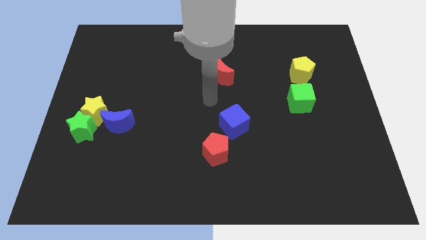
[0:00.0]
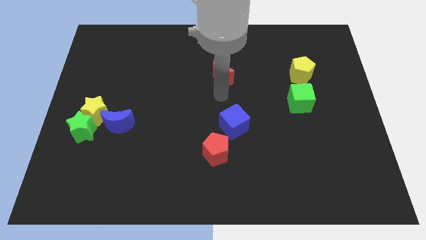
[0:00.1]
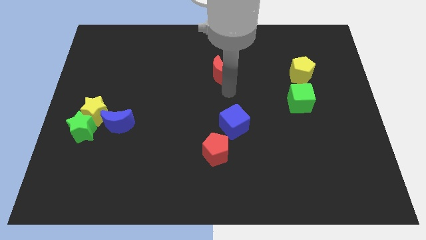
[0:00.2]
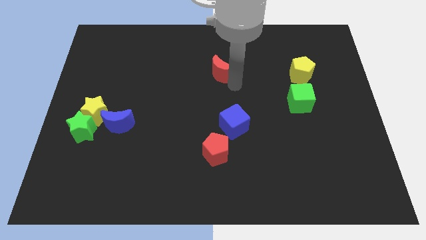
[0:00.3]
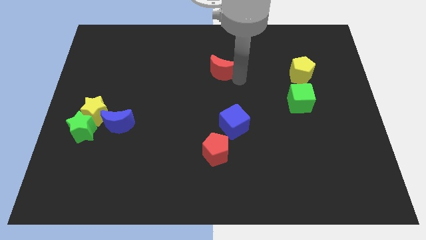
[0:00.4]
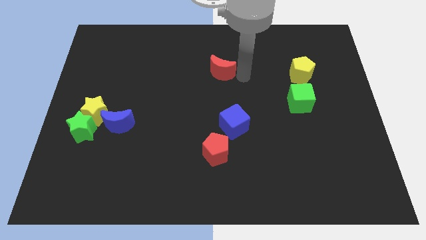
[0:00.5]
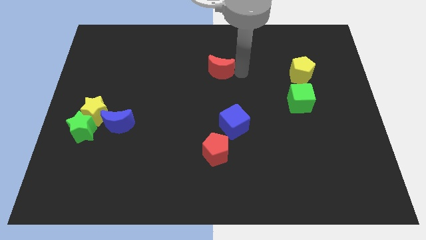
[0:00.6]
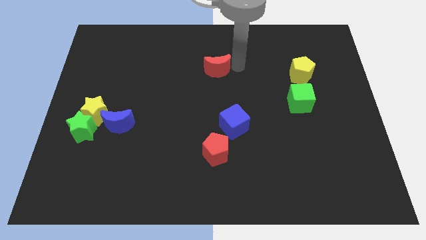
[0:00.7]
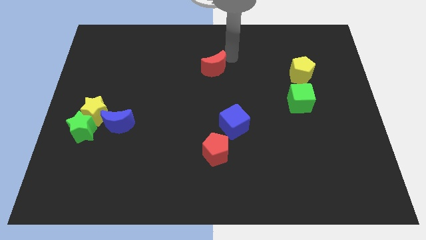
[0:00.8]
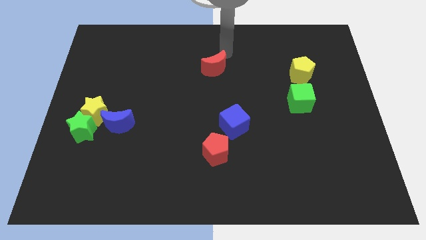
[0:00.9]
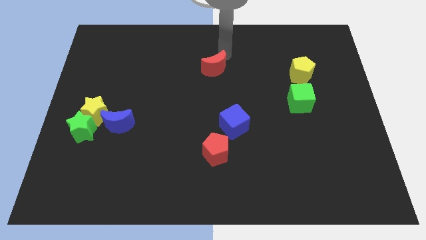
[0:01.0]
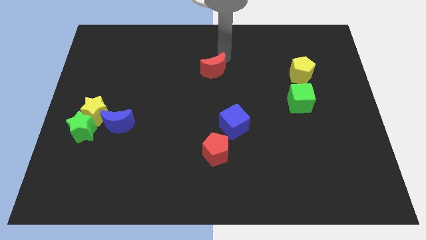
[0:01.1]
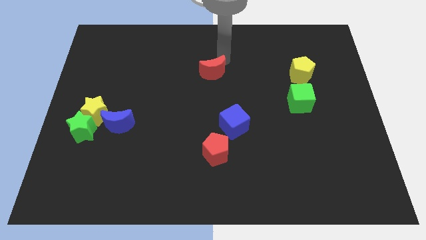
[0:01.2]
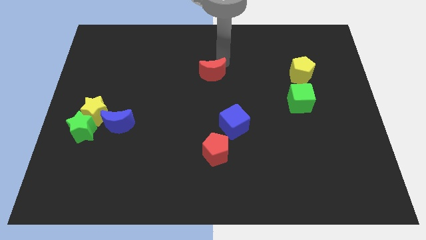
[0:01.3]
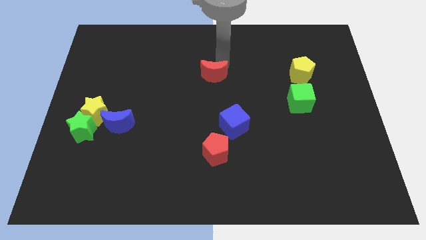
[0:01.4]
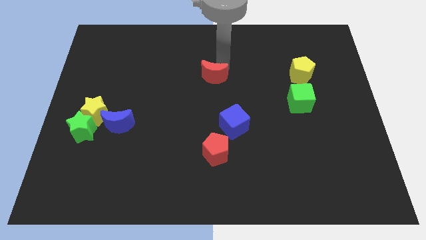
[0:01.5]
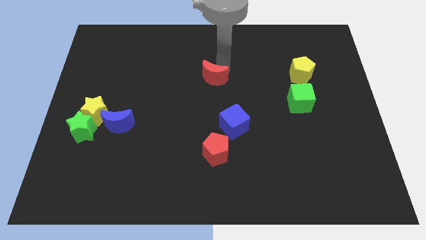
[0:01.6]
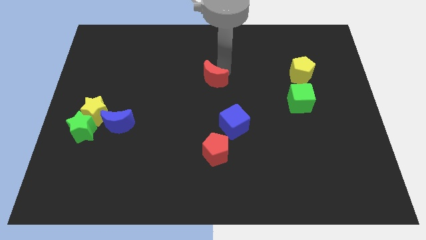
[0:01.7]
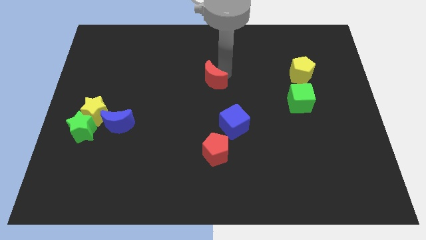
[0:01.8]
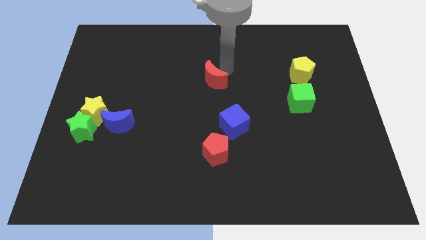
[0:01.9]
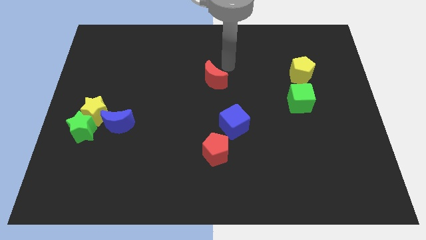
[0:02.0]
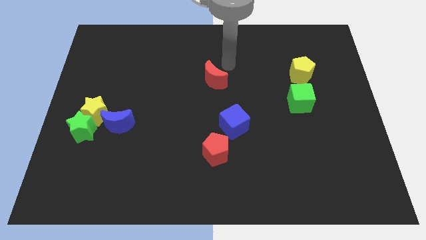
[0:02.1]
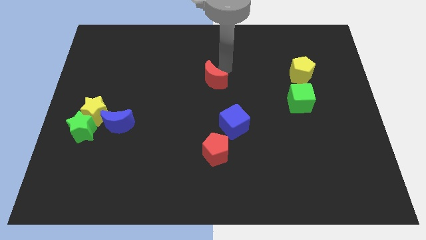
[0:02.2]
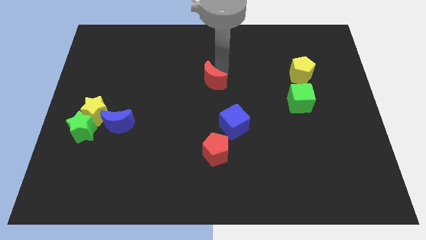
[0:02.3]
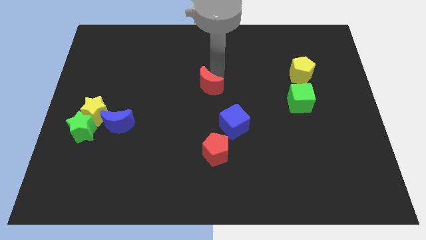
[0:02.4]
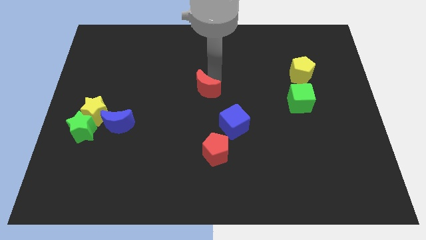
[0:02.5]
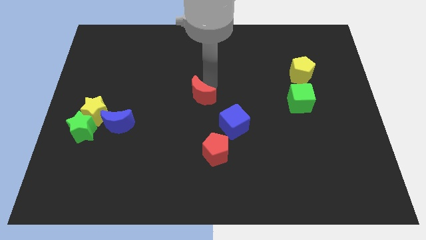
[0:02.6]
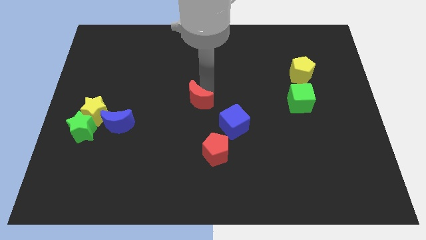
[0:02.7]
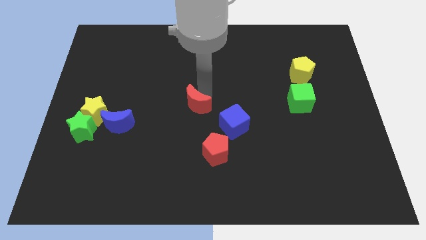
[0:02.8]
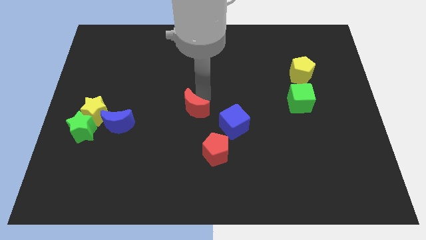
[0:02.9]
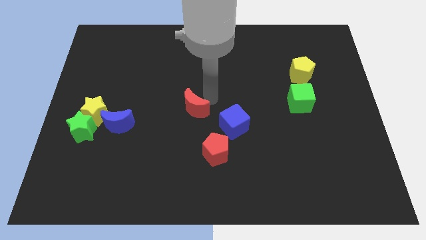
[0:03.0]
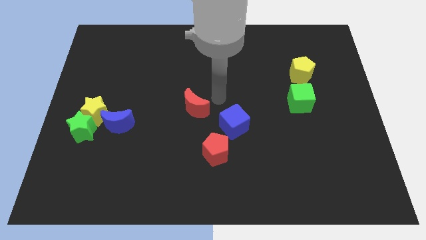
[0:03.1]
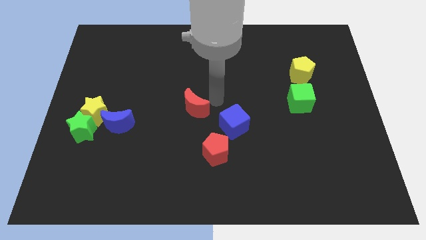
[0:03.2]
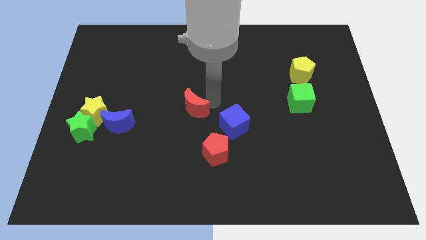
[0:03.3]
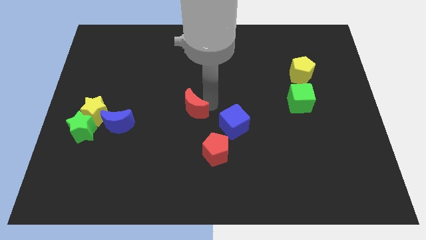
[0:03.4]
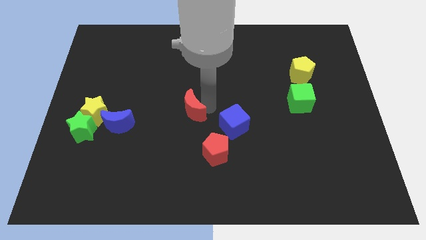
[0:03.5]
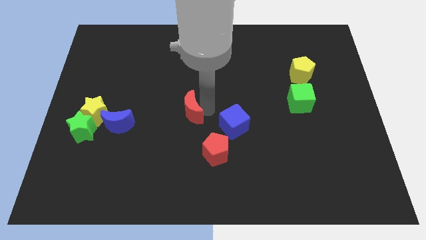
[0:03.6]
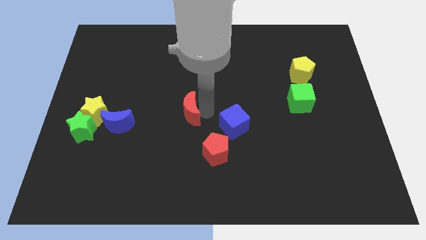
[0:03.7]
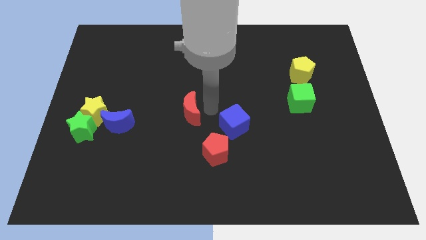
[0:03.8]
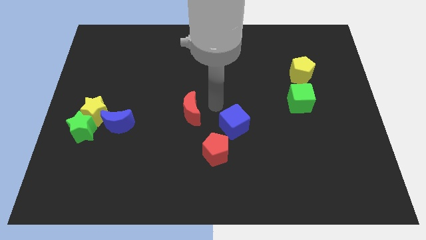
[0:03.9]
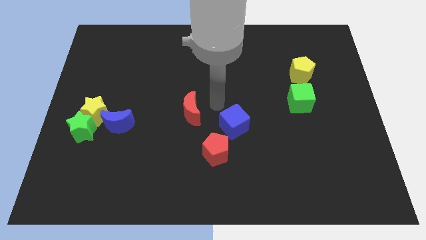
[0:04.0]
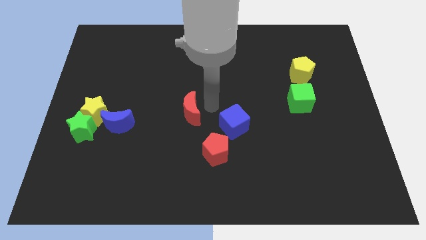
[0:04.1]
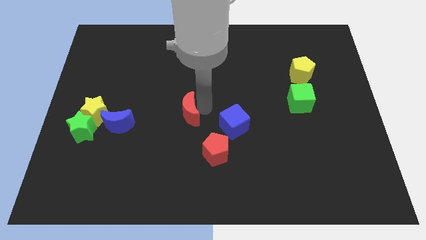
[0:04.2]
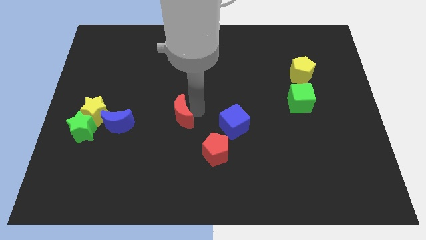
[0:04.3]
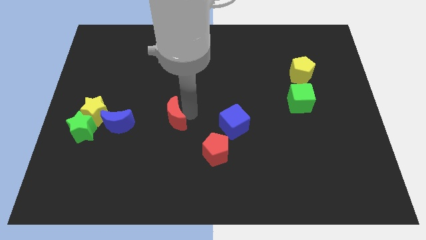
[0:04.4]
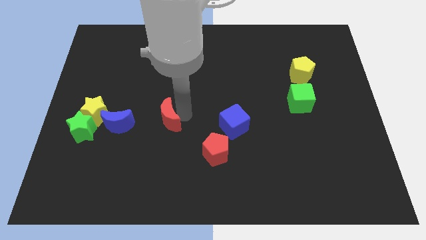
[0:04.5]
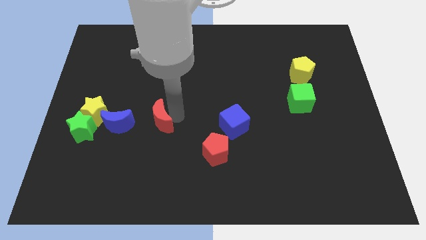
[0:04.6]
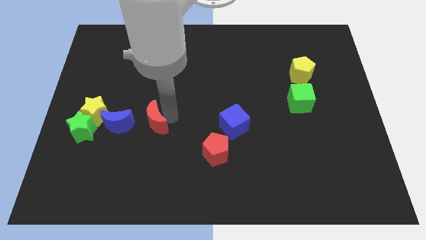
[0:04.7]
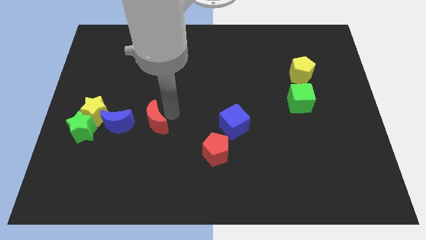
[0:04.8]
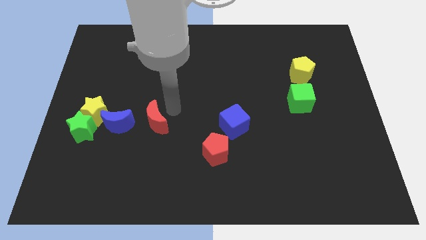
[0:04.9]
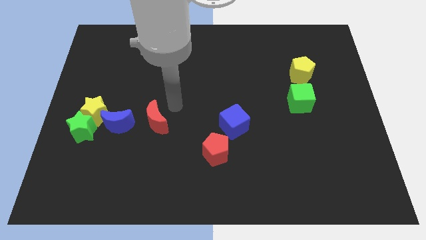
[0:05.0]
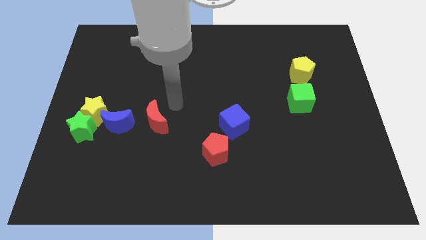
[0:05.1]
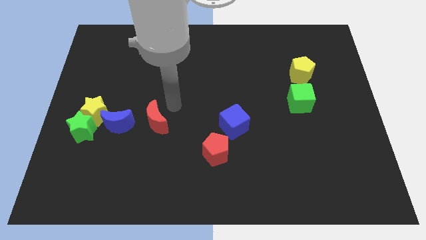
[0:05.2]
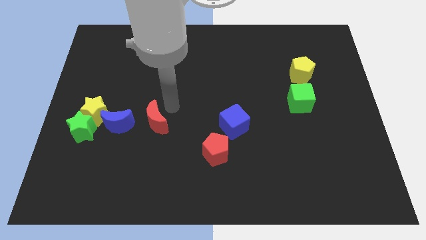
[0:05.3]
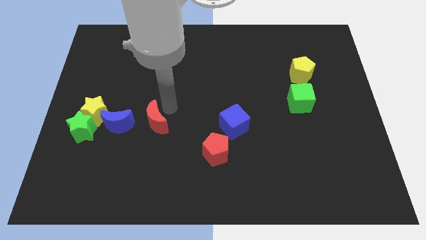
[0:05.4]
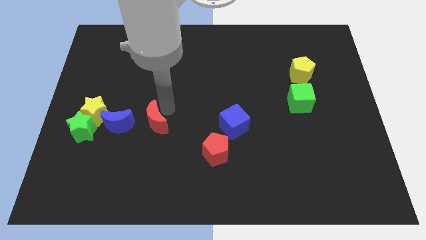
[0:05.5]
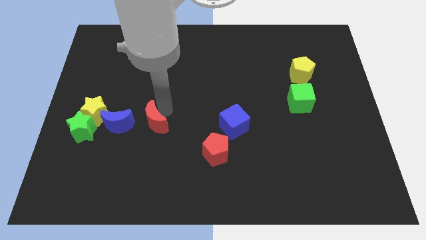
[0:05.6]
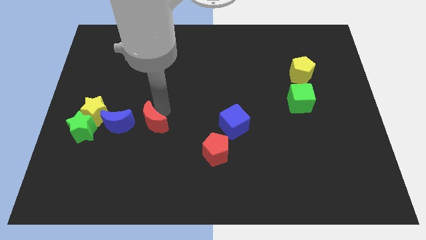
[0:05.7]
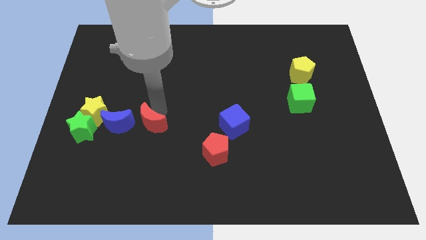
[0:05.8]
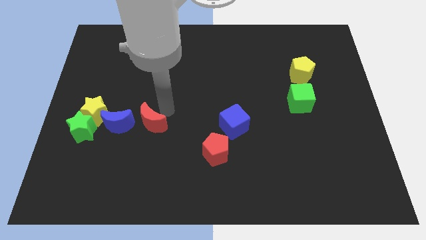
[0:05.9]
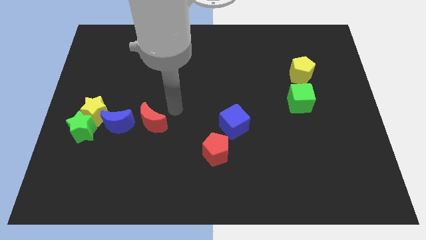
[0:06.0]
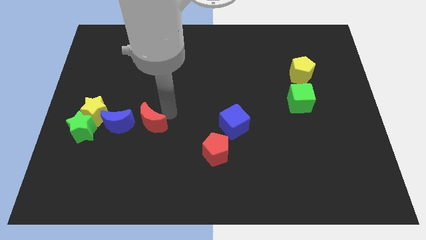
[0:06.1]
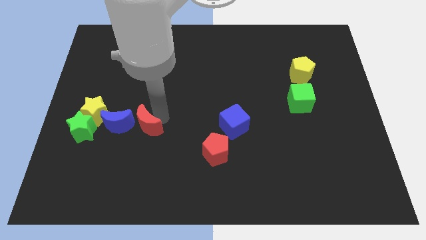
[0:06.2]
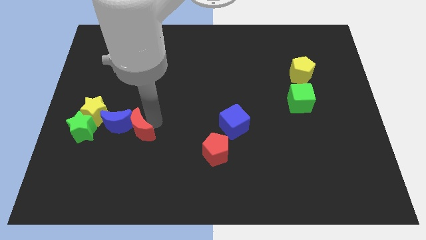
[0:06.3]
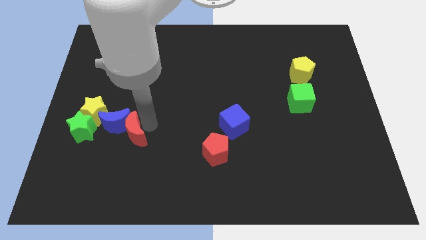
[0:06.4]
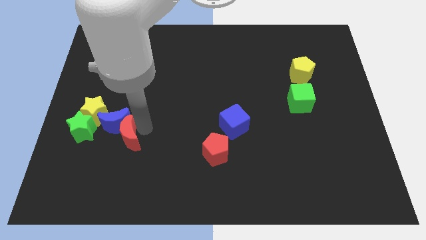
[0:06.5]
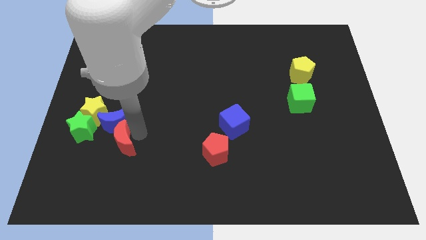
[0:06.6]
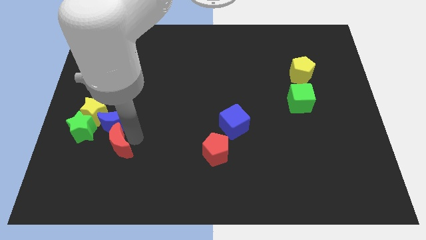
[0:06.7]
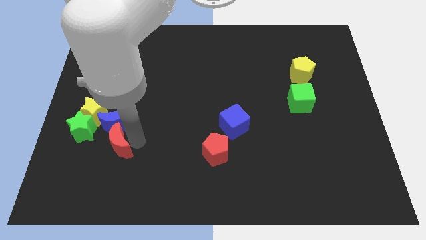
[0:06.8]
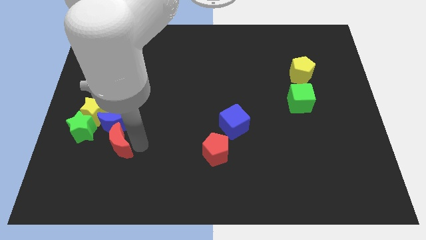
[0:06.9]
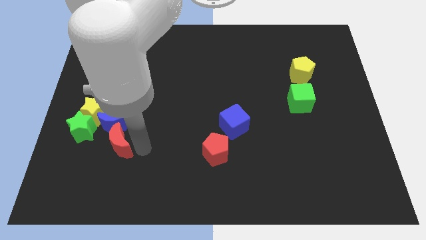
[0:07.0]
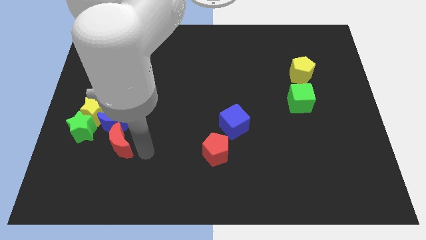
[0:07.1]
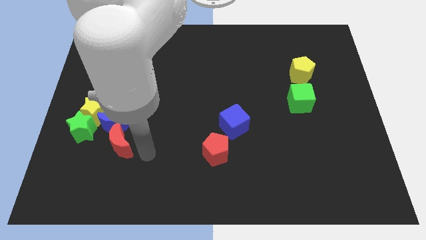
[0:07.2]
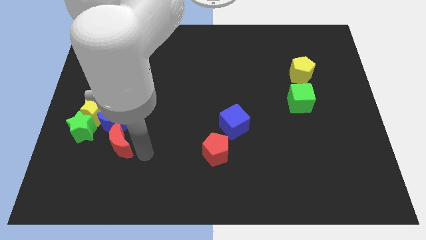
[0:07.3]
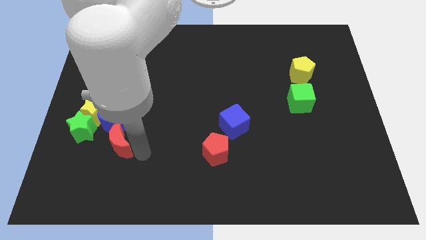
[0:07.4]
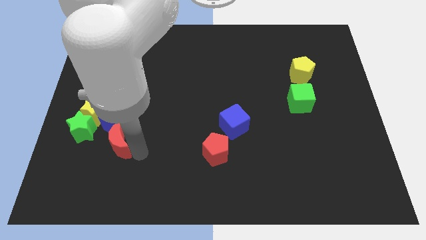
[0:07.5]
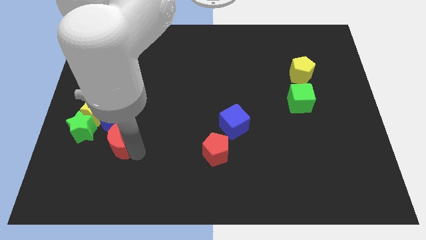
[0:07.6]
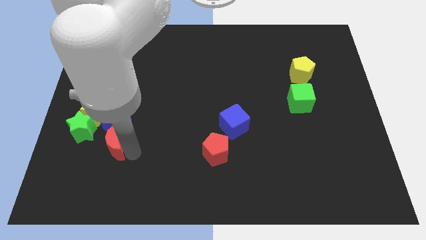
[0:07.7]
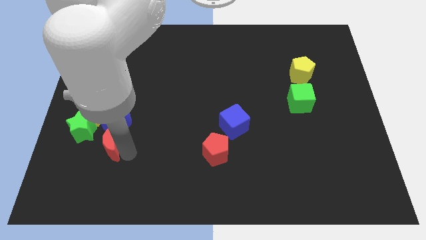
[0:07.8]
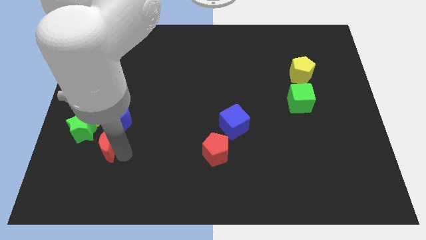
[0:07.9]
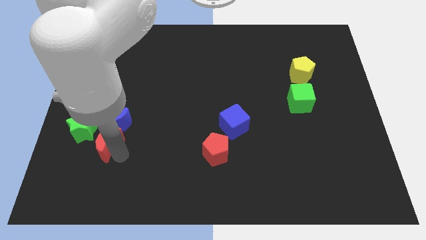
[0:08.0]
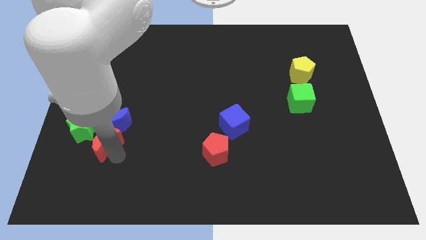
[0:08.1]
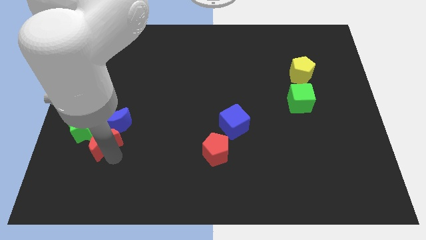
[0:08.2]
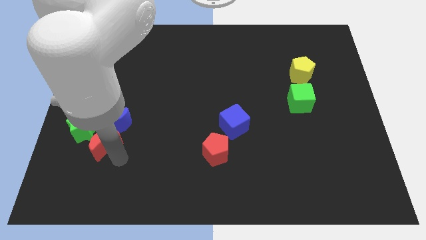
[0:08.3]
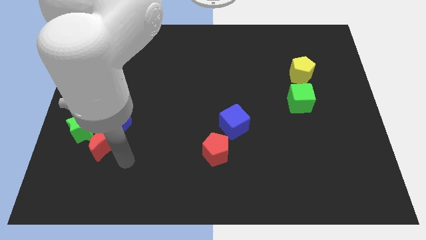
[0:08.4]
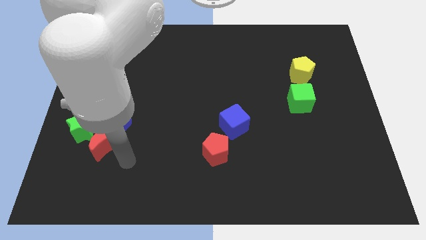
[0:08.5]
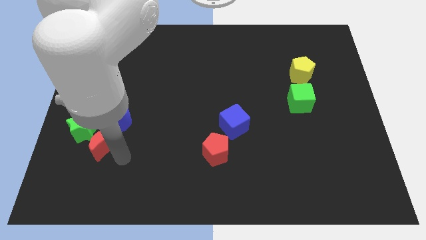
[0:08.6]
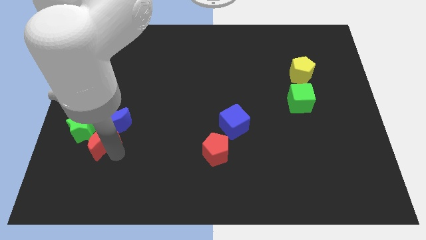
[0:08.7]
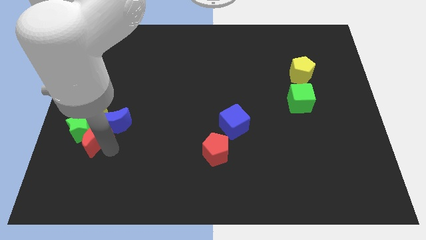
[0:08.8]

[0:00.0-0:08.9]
push the red moon close to the green star
